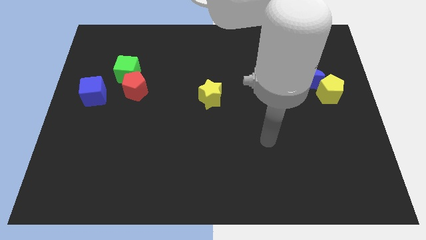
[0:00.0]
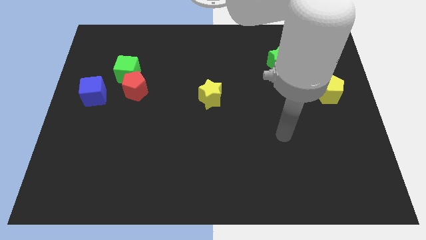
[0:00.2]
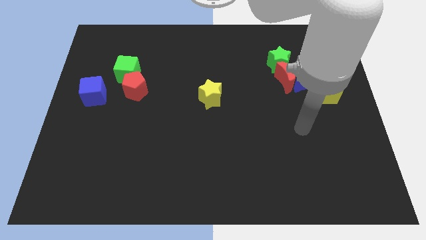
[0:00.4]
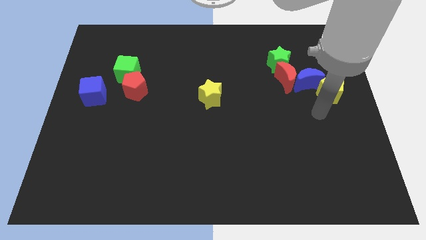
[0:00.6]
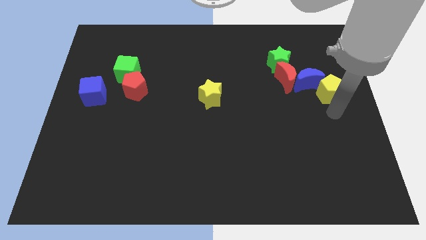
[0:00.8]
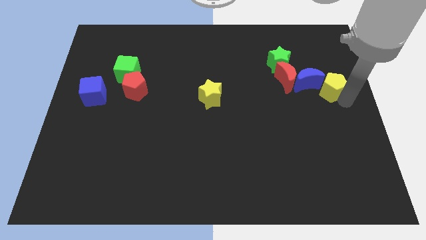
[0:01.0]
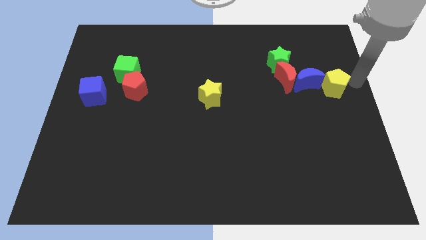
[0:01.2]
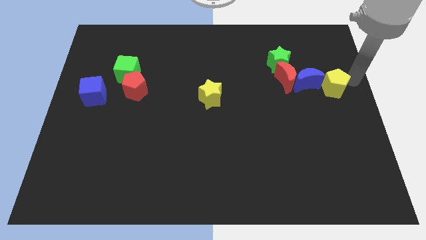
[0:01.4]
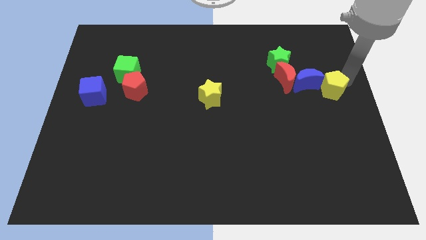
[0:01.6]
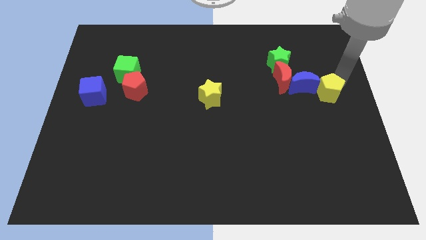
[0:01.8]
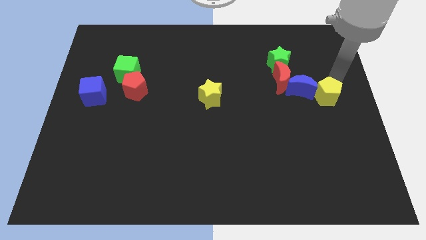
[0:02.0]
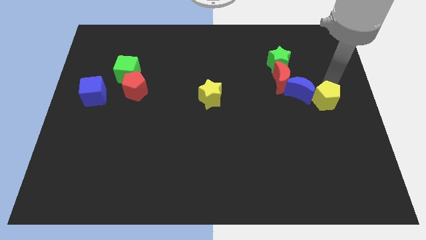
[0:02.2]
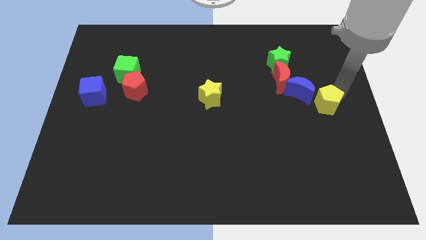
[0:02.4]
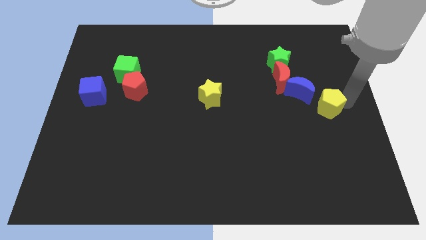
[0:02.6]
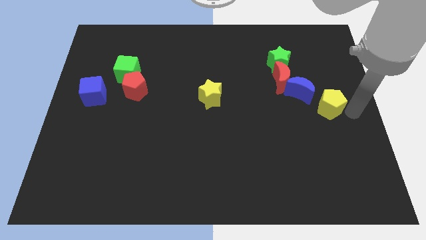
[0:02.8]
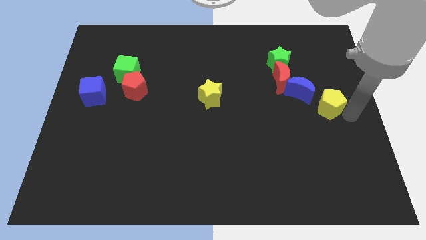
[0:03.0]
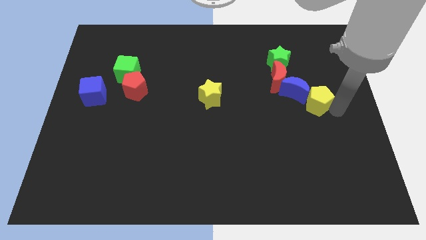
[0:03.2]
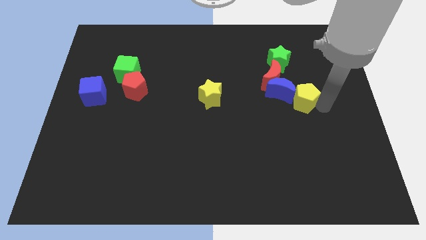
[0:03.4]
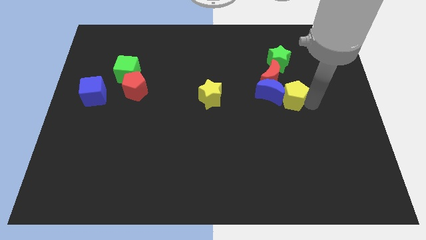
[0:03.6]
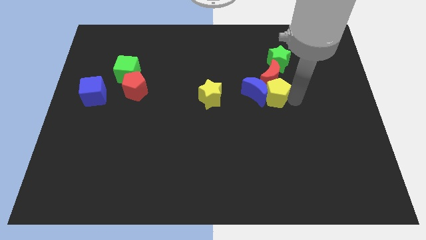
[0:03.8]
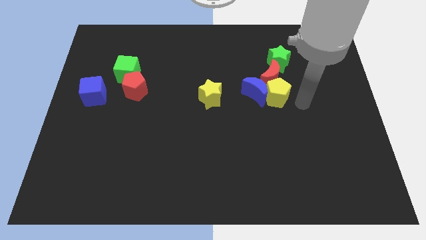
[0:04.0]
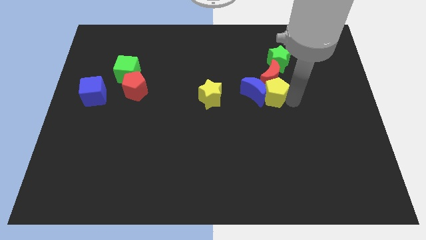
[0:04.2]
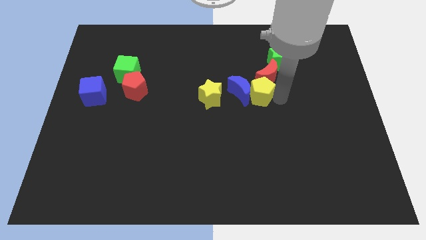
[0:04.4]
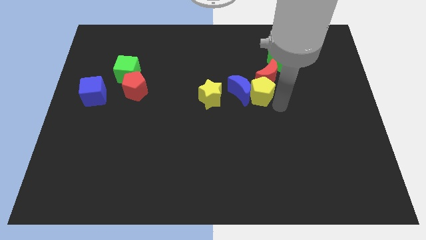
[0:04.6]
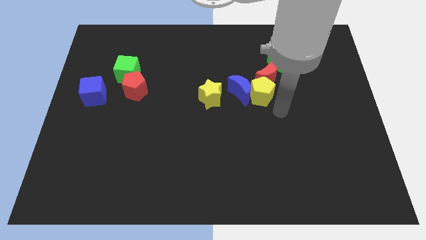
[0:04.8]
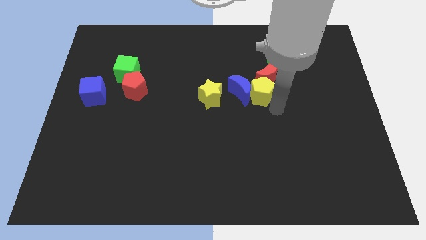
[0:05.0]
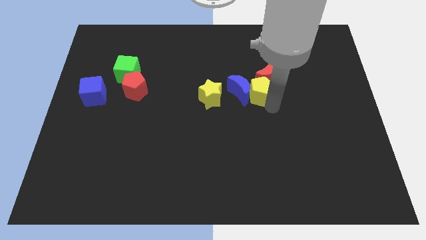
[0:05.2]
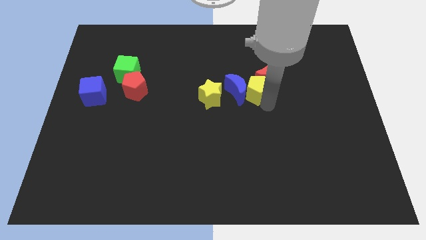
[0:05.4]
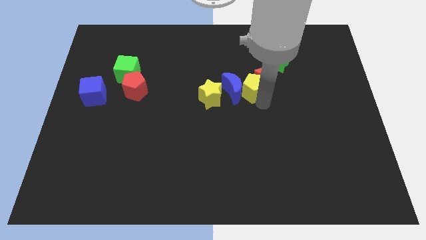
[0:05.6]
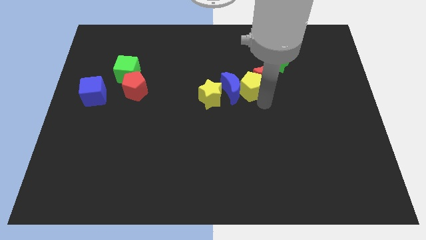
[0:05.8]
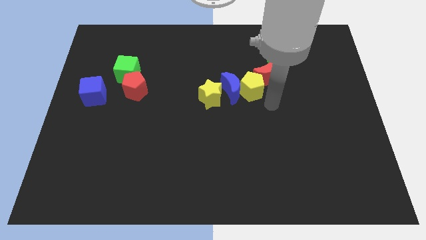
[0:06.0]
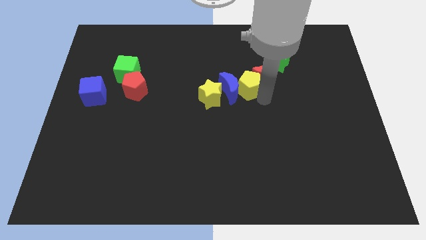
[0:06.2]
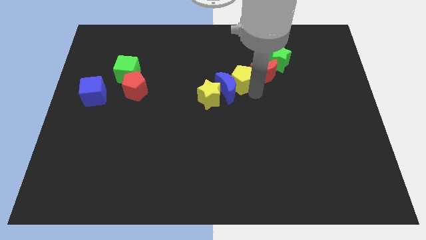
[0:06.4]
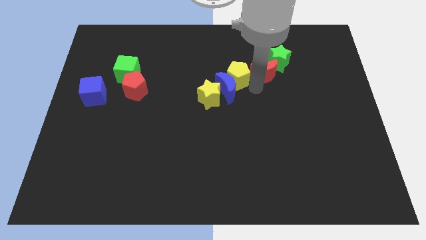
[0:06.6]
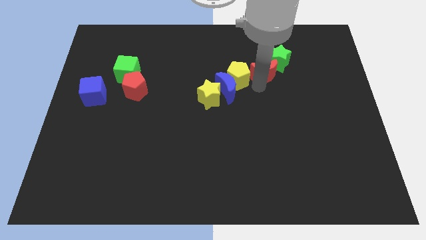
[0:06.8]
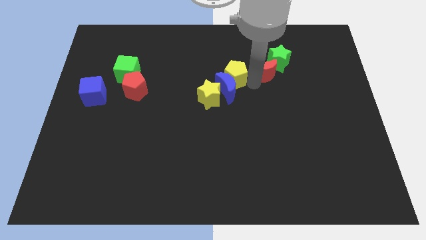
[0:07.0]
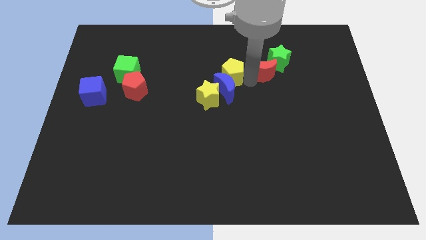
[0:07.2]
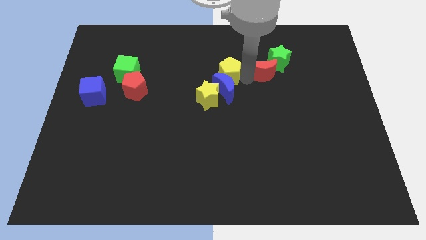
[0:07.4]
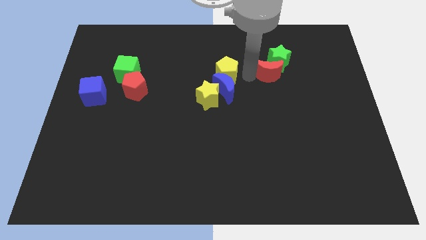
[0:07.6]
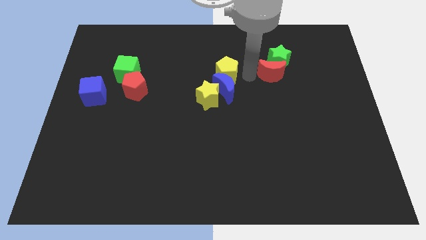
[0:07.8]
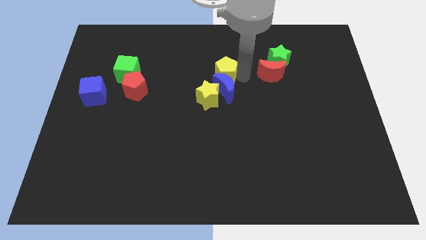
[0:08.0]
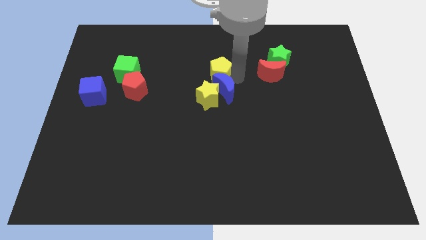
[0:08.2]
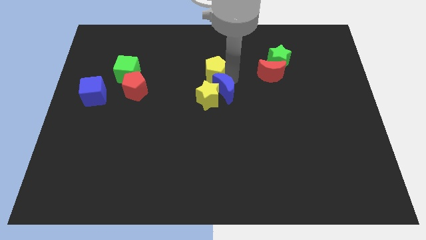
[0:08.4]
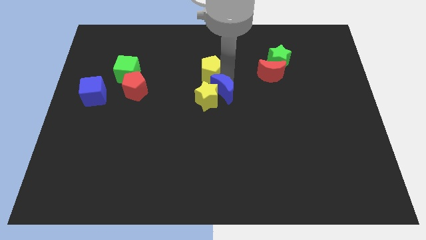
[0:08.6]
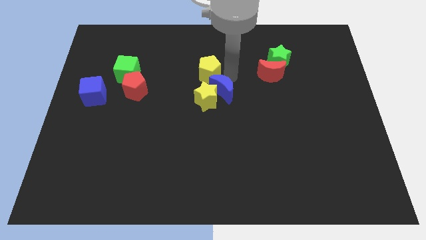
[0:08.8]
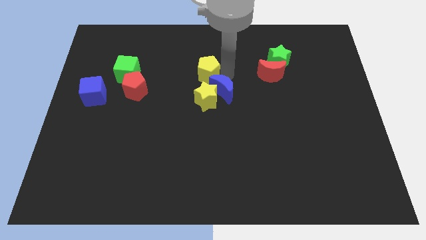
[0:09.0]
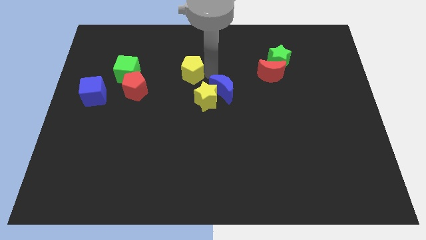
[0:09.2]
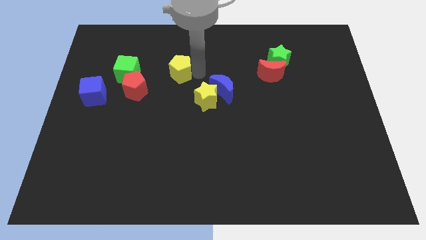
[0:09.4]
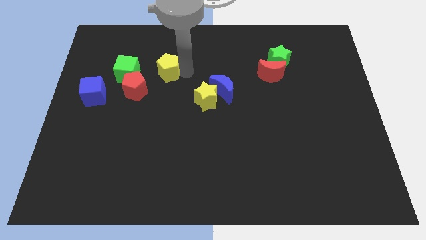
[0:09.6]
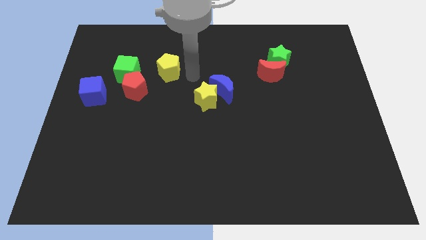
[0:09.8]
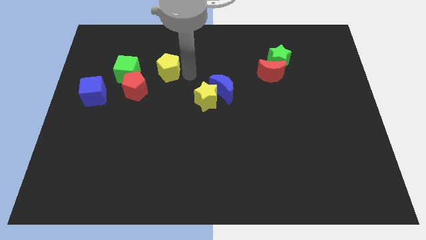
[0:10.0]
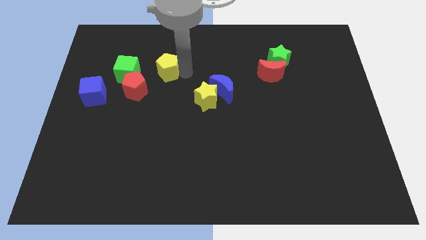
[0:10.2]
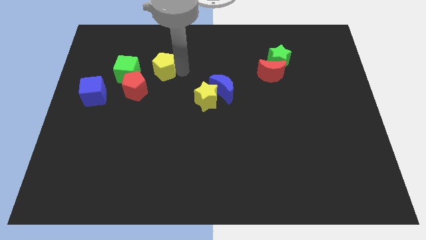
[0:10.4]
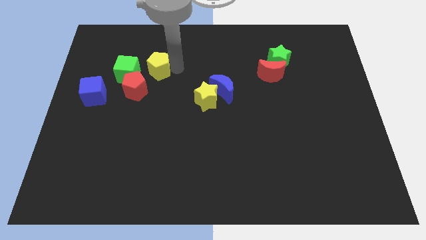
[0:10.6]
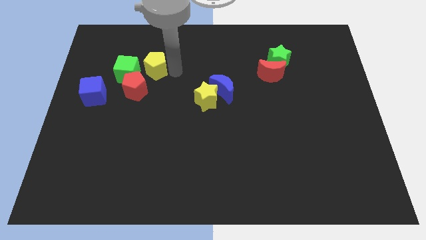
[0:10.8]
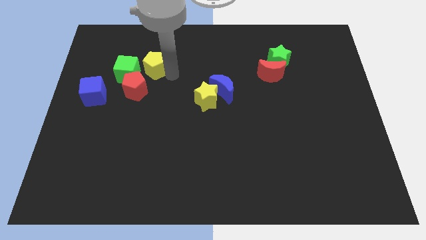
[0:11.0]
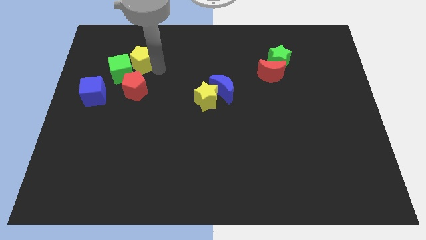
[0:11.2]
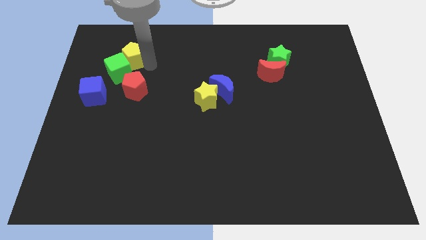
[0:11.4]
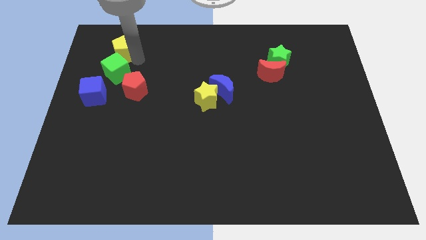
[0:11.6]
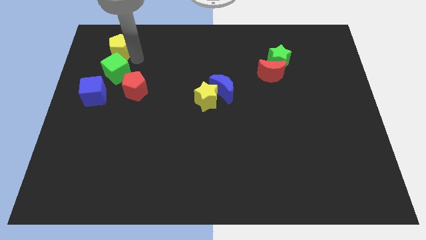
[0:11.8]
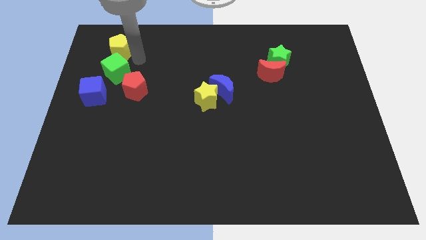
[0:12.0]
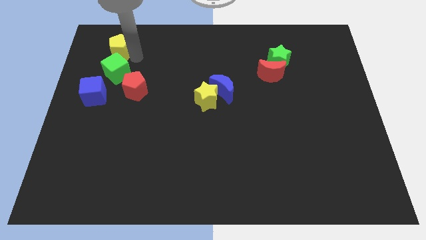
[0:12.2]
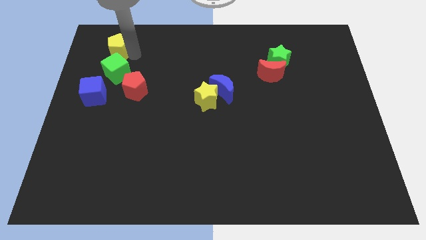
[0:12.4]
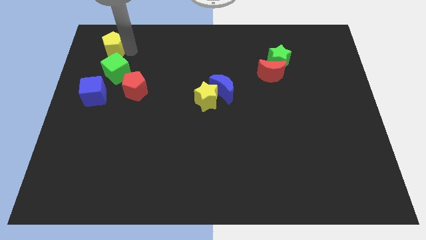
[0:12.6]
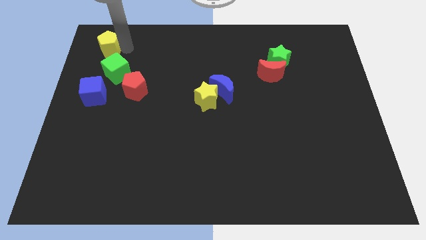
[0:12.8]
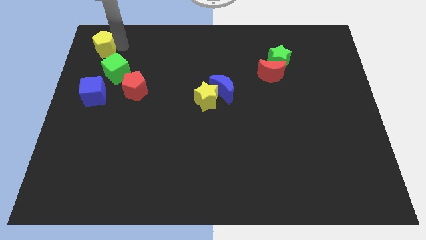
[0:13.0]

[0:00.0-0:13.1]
push the yellow pentagon to the top left corner

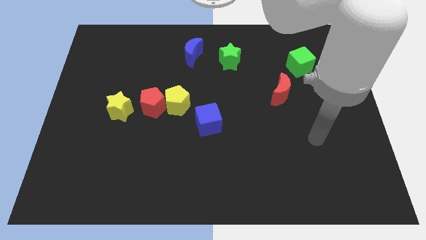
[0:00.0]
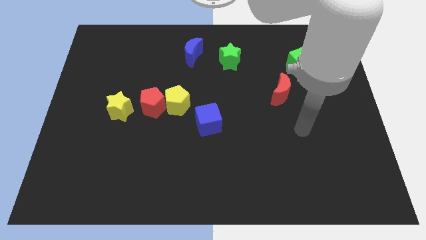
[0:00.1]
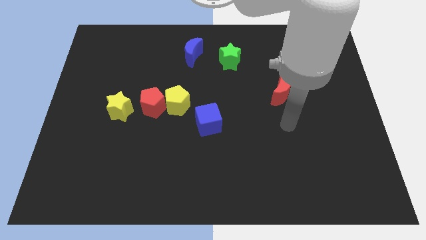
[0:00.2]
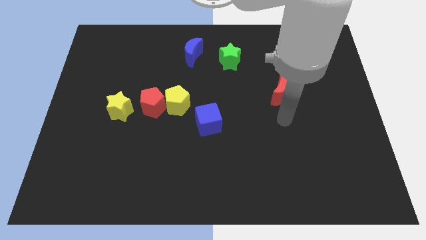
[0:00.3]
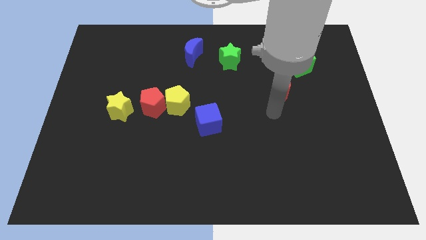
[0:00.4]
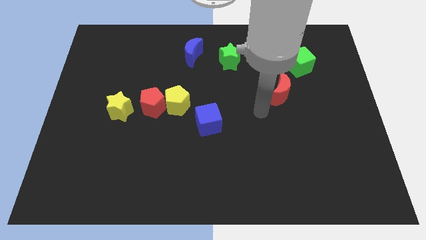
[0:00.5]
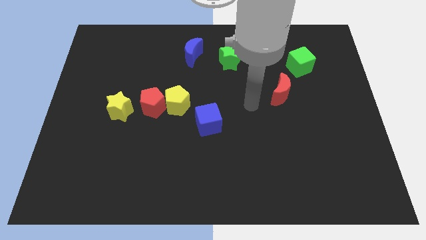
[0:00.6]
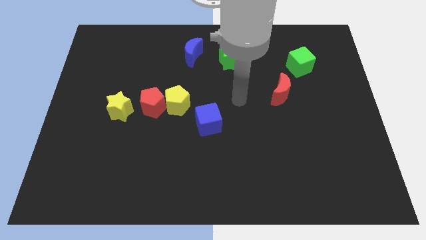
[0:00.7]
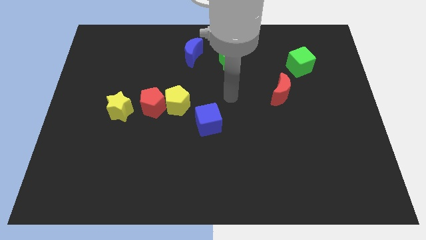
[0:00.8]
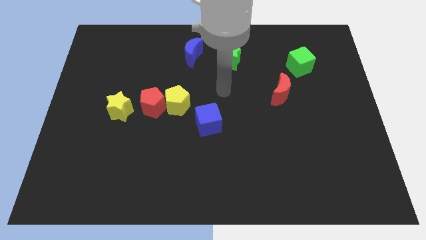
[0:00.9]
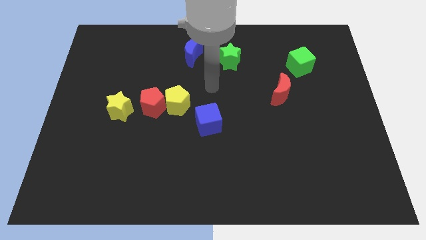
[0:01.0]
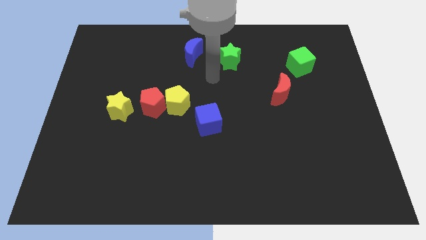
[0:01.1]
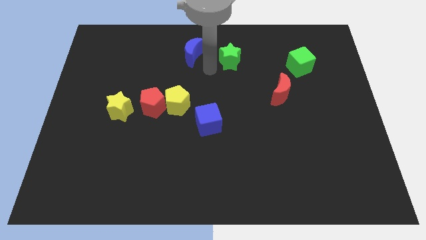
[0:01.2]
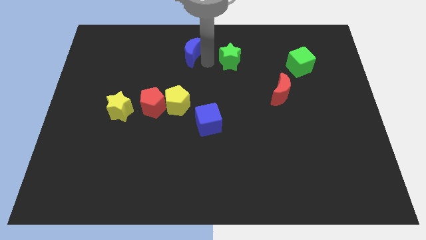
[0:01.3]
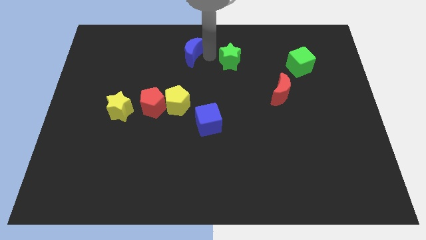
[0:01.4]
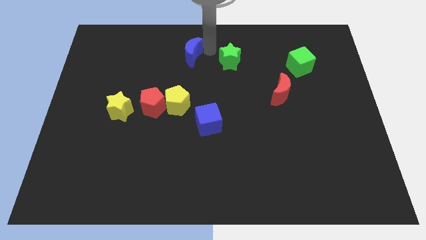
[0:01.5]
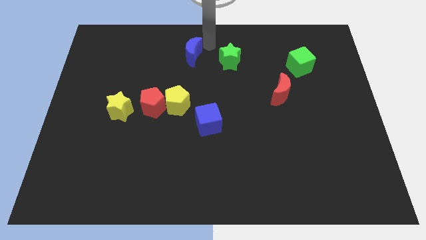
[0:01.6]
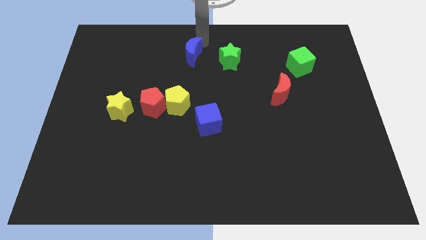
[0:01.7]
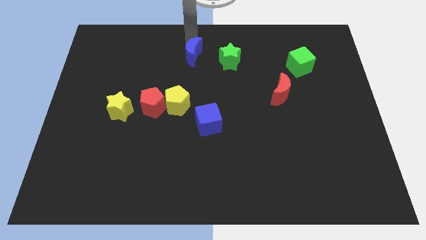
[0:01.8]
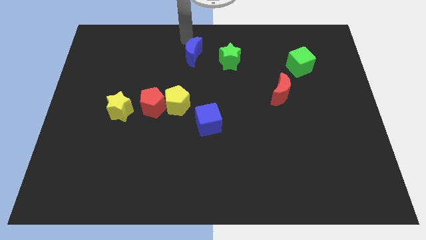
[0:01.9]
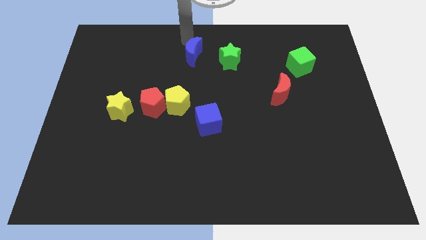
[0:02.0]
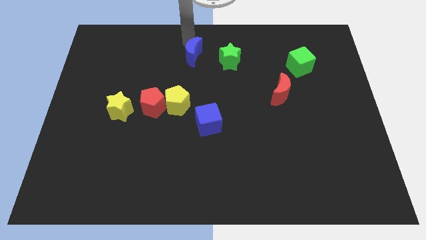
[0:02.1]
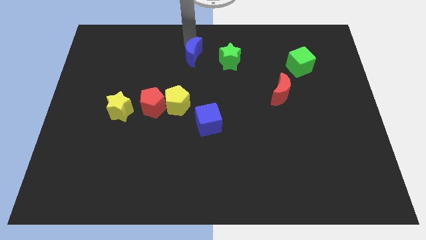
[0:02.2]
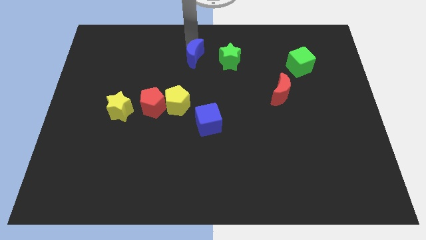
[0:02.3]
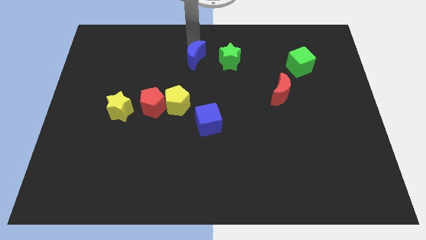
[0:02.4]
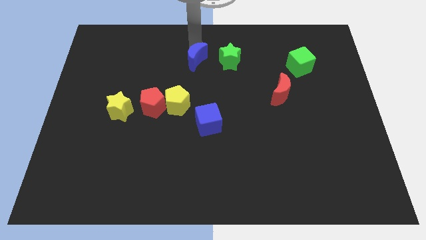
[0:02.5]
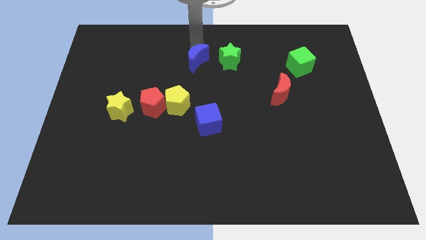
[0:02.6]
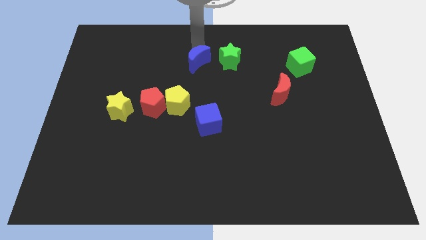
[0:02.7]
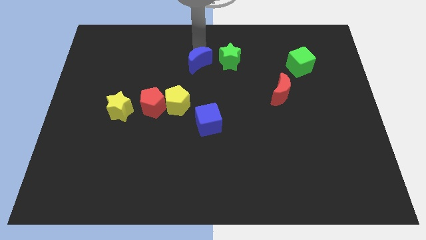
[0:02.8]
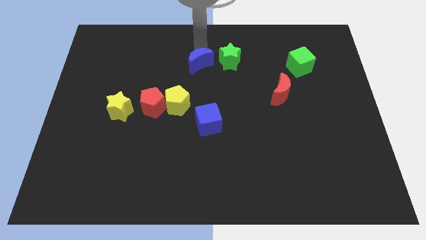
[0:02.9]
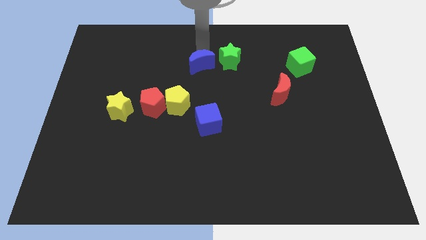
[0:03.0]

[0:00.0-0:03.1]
slide the blue moon to the middle of the board
